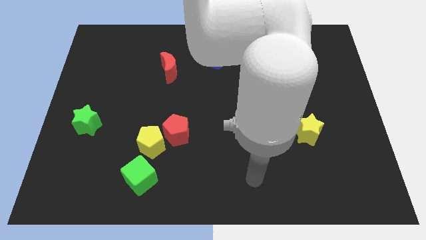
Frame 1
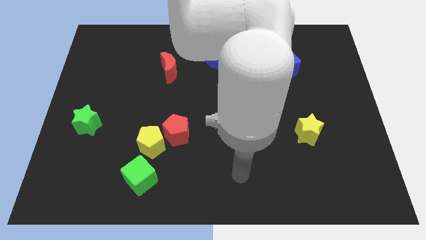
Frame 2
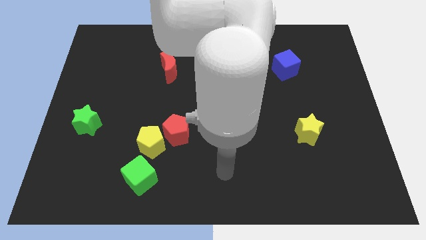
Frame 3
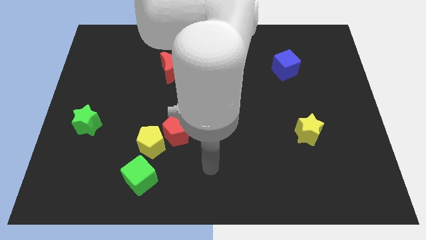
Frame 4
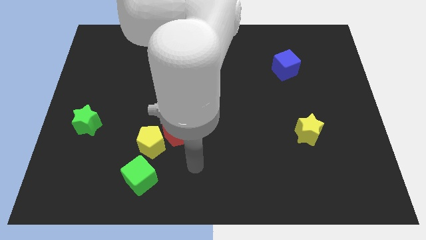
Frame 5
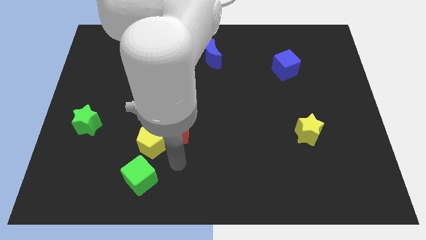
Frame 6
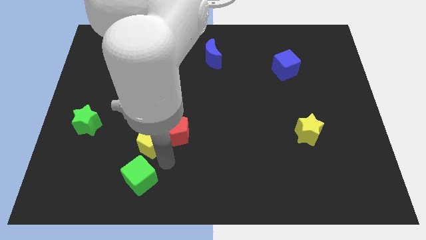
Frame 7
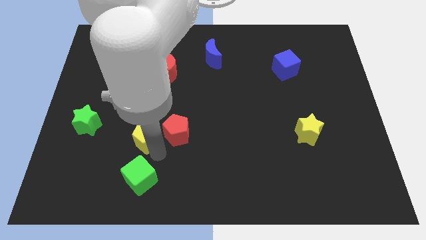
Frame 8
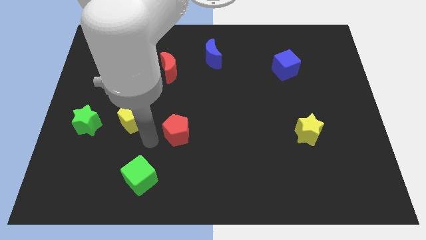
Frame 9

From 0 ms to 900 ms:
move the red pentagon away from the yellow pentagon

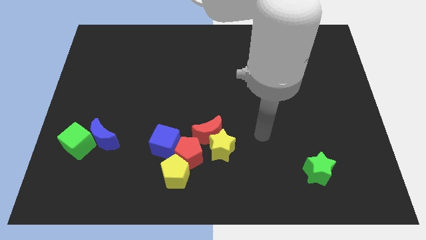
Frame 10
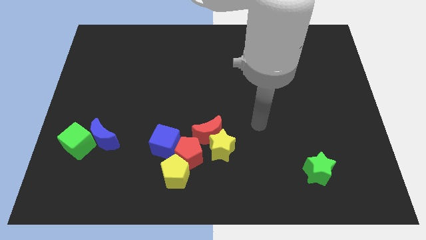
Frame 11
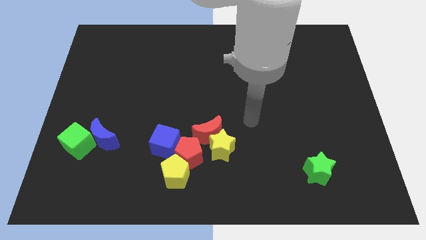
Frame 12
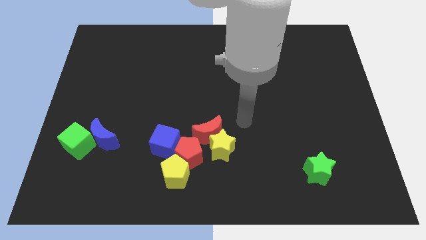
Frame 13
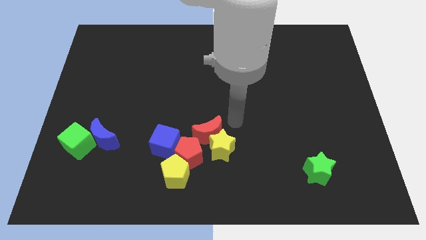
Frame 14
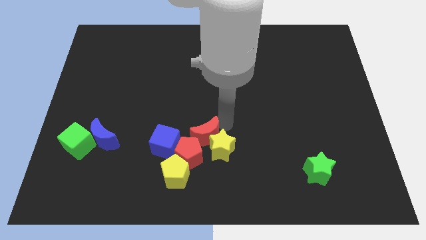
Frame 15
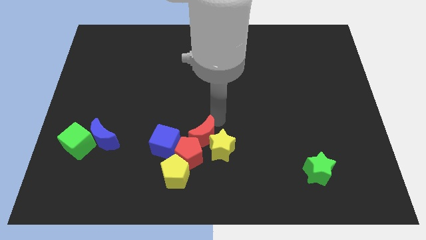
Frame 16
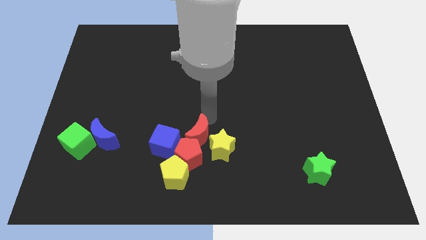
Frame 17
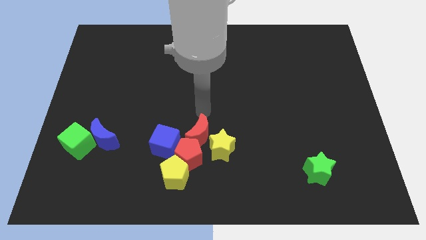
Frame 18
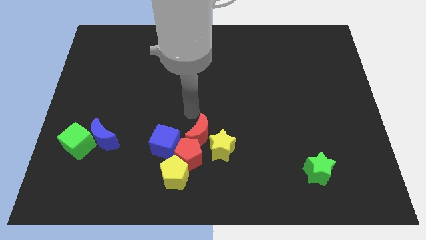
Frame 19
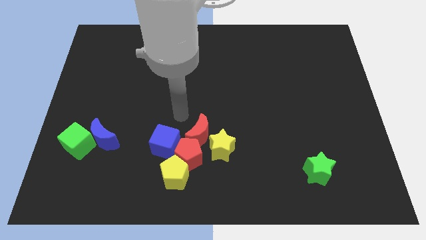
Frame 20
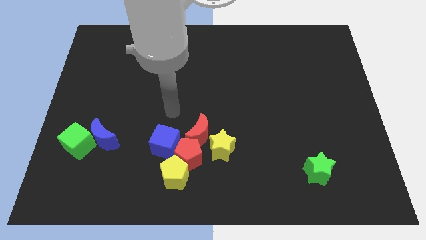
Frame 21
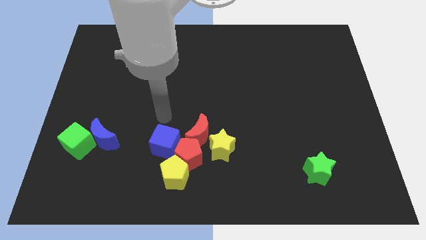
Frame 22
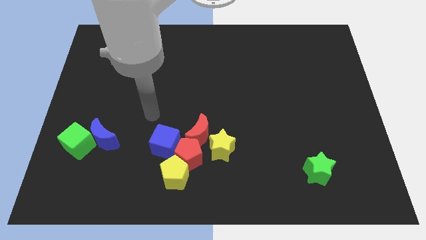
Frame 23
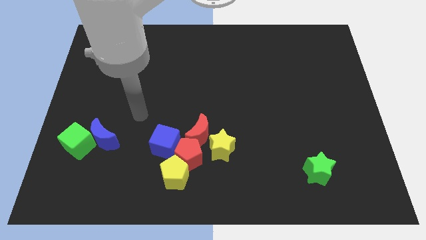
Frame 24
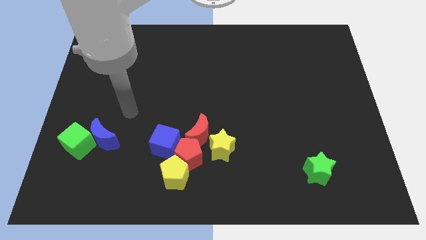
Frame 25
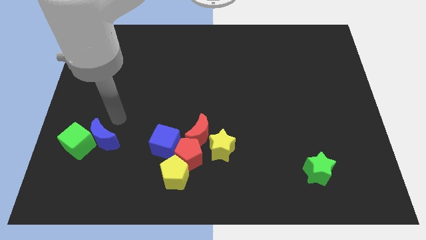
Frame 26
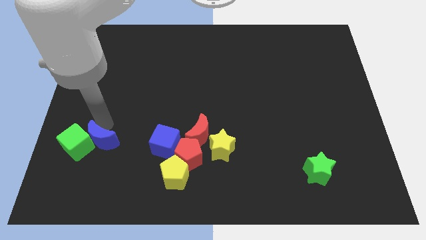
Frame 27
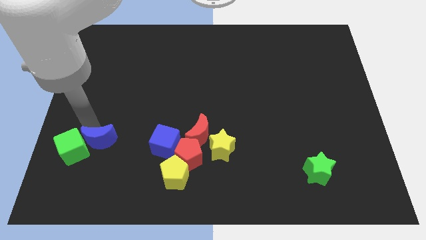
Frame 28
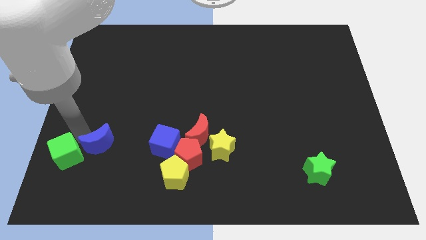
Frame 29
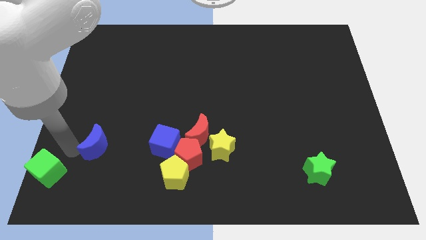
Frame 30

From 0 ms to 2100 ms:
pull the blue moon apart from the green cube

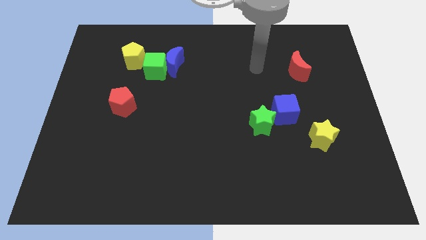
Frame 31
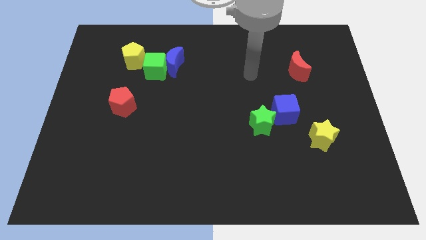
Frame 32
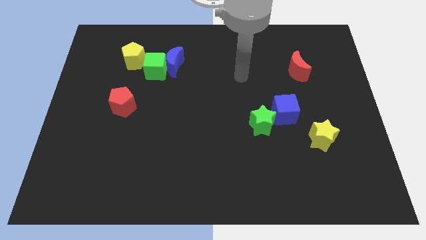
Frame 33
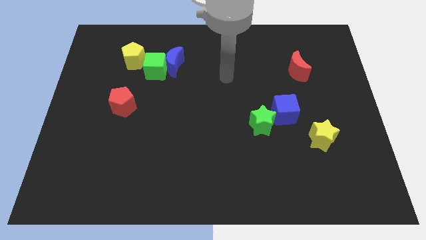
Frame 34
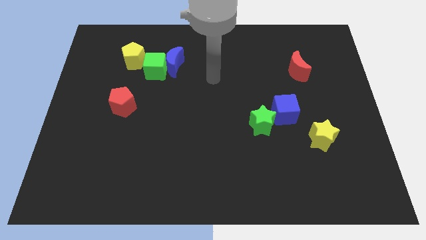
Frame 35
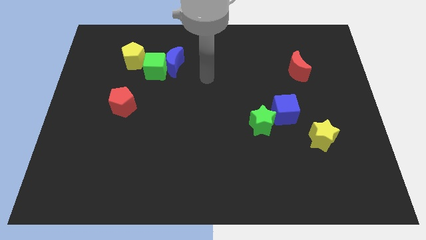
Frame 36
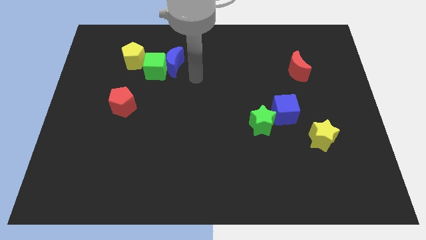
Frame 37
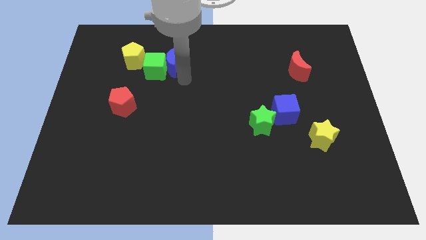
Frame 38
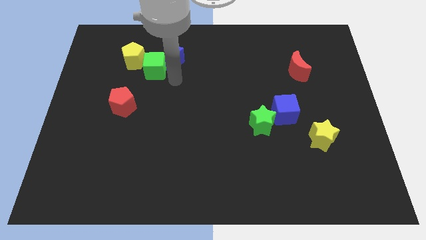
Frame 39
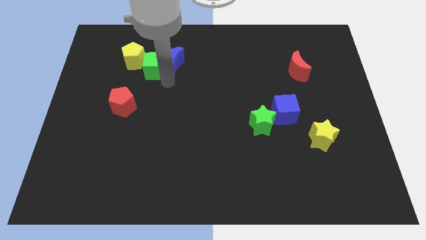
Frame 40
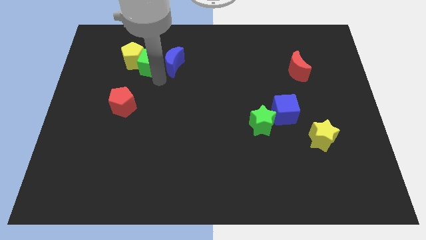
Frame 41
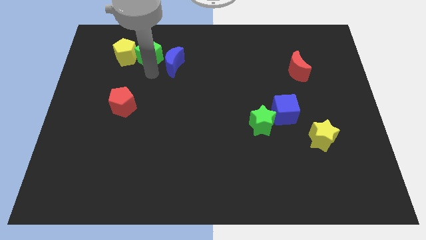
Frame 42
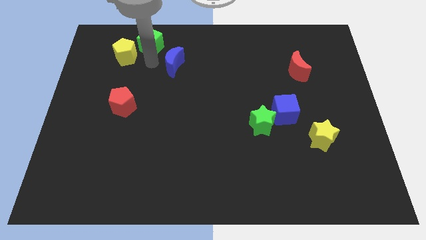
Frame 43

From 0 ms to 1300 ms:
move the blue moon away from the green cube

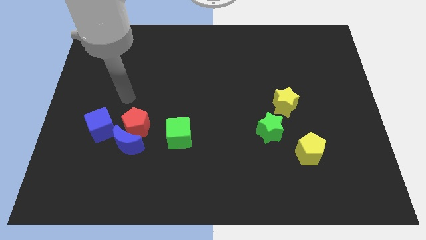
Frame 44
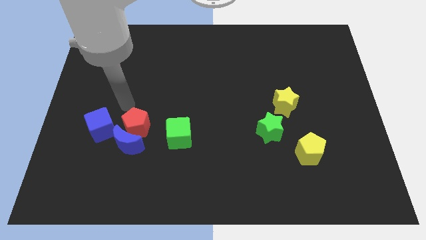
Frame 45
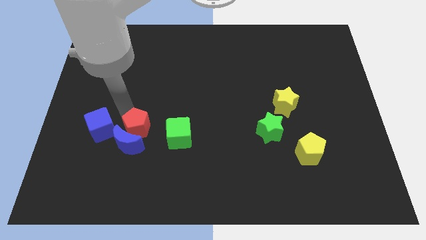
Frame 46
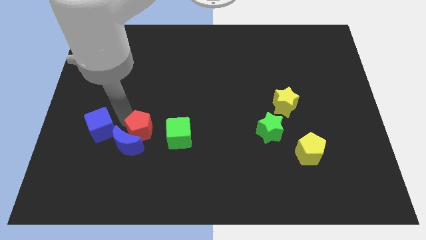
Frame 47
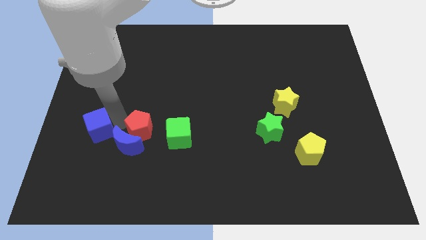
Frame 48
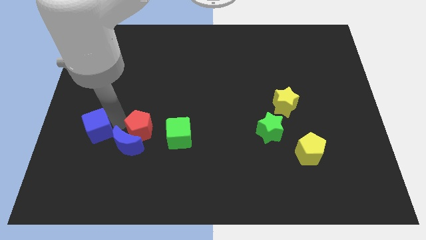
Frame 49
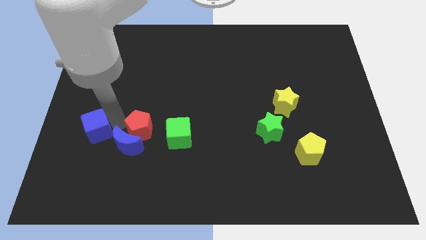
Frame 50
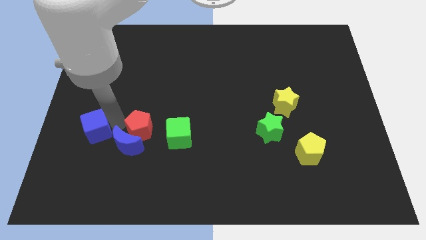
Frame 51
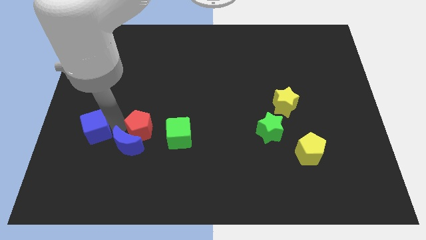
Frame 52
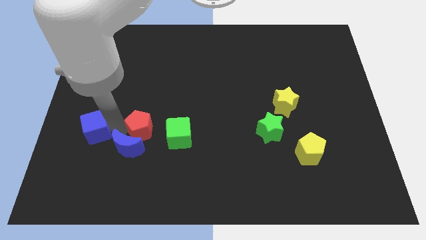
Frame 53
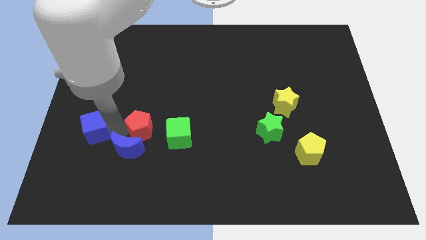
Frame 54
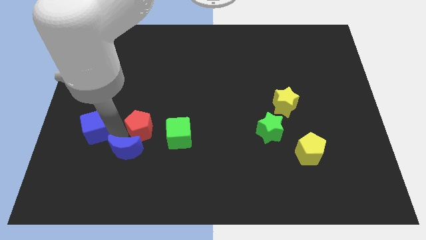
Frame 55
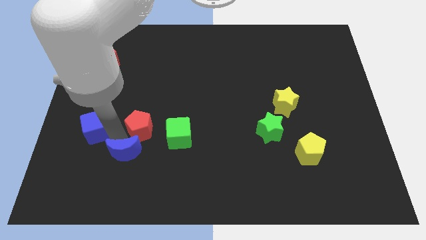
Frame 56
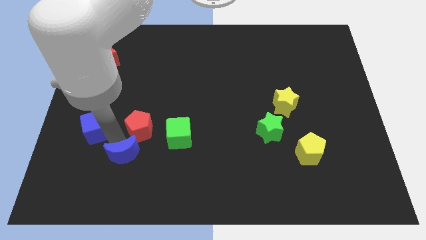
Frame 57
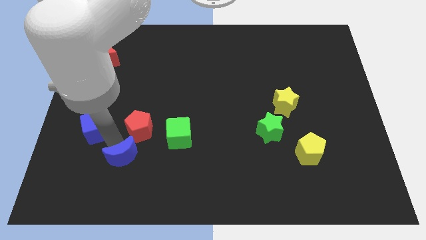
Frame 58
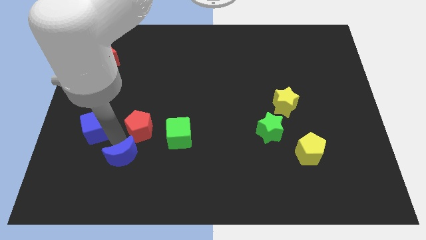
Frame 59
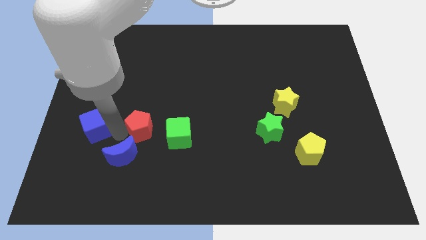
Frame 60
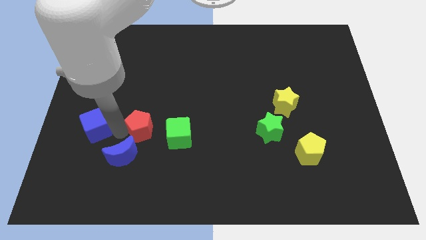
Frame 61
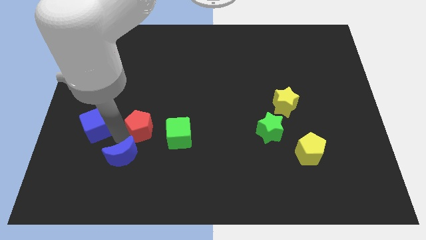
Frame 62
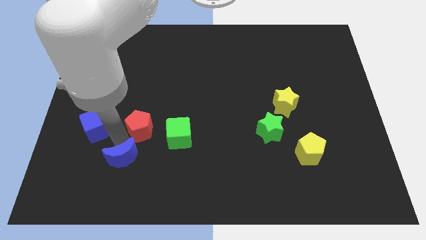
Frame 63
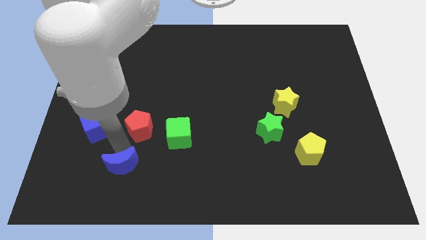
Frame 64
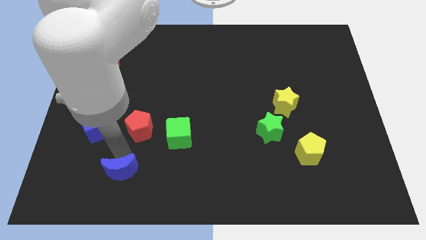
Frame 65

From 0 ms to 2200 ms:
pull the blue moon apart from the red pentagon and blue cube

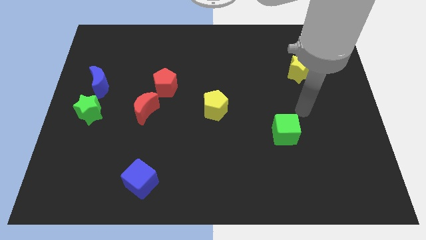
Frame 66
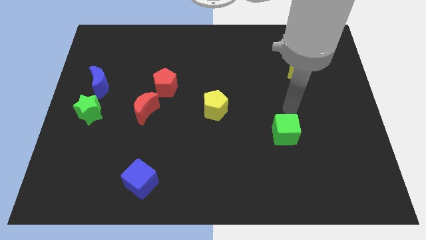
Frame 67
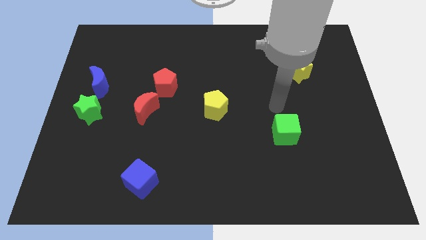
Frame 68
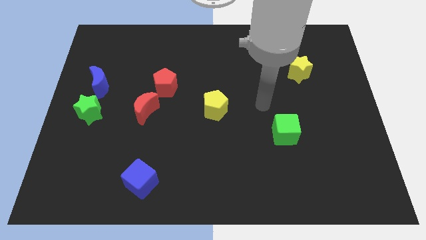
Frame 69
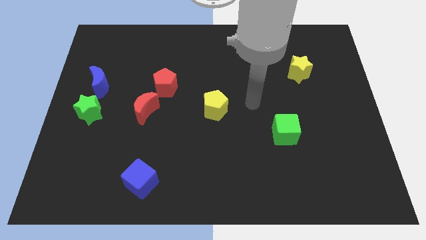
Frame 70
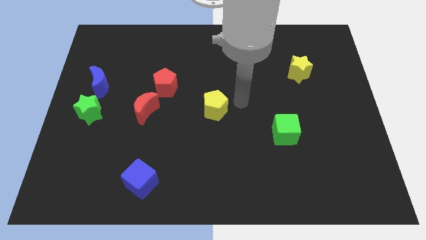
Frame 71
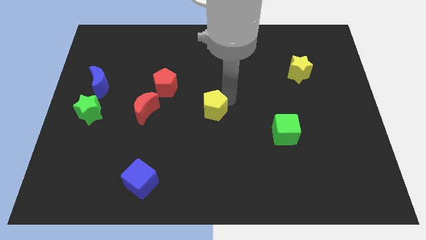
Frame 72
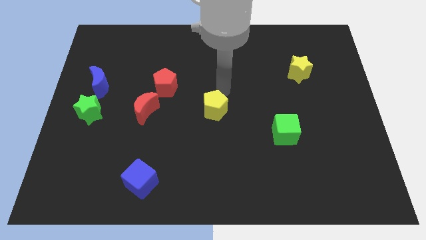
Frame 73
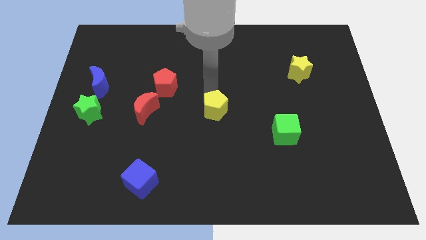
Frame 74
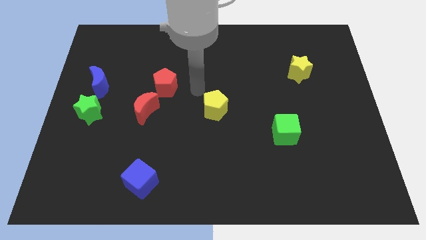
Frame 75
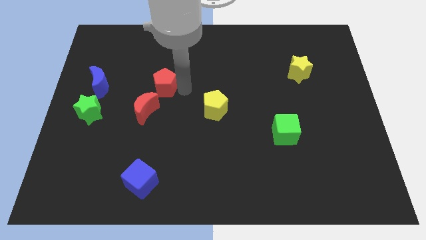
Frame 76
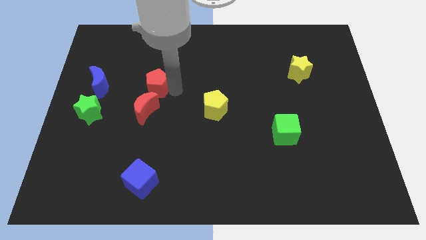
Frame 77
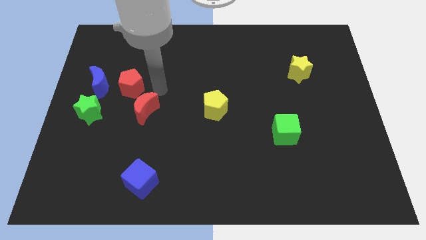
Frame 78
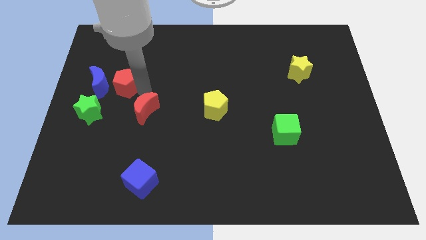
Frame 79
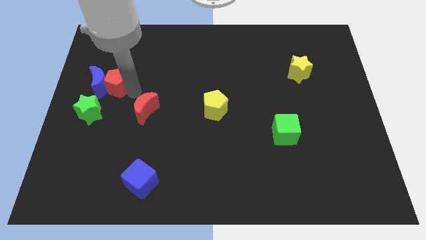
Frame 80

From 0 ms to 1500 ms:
pull the red moon apart from the red pentagon

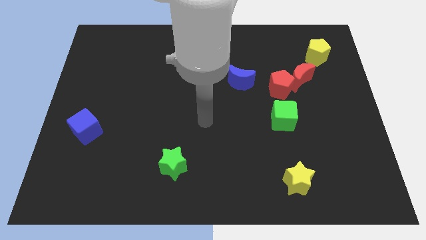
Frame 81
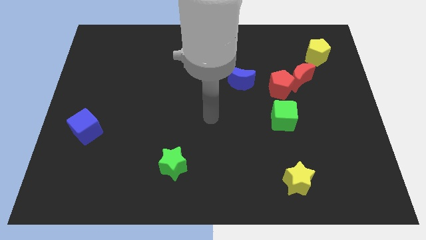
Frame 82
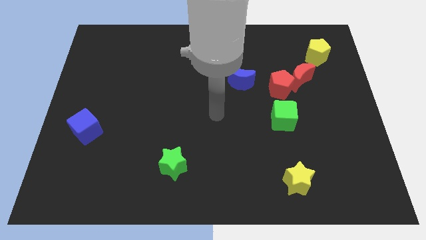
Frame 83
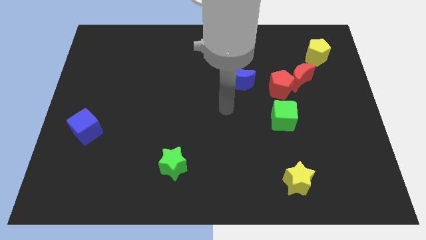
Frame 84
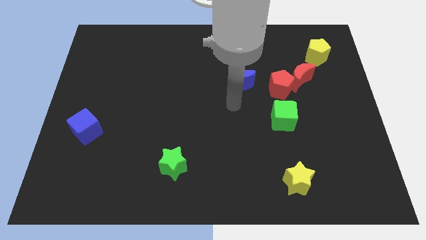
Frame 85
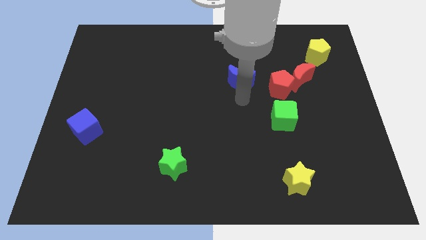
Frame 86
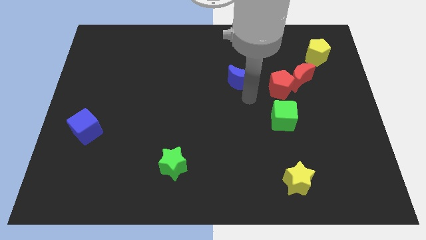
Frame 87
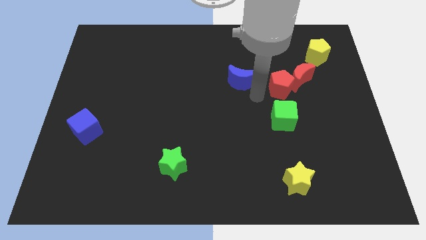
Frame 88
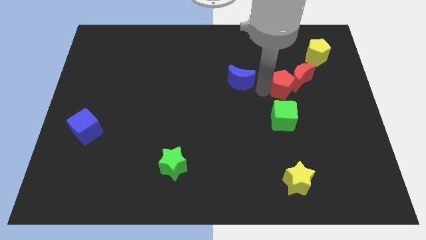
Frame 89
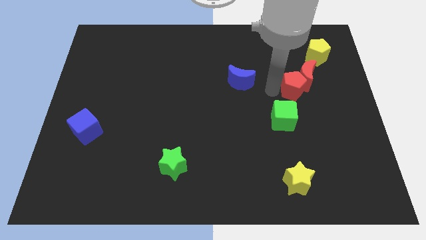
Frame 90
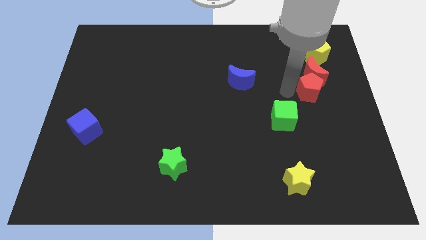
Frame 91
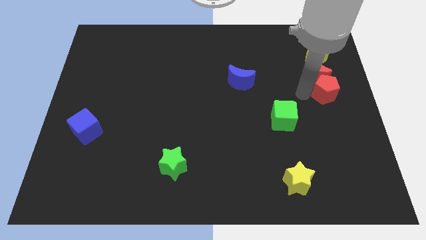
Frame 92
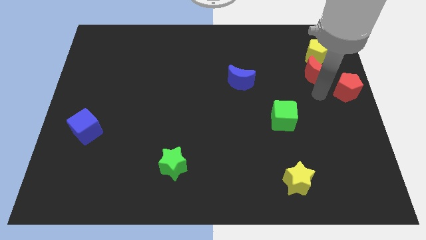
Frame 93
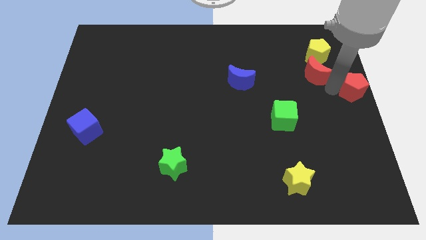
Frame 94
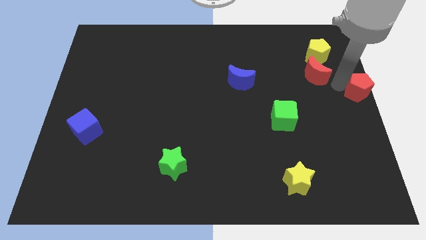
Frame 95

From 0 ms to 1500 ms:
move the red moon away from the red pentagon

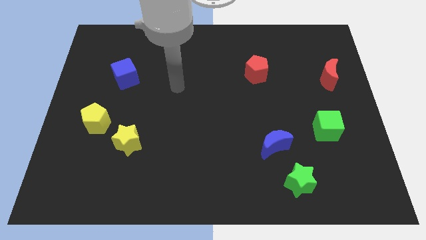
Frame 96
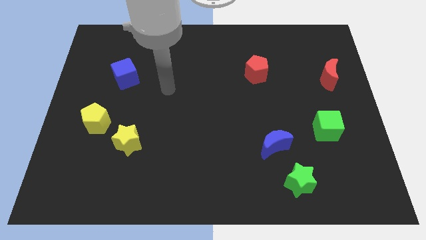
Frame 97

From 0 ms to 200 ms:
pull the yellow star apart from the yellow pentagon
